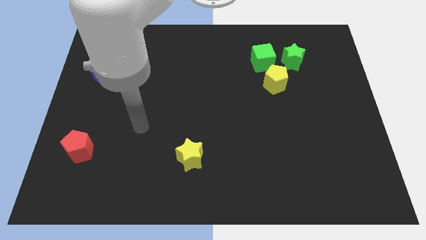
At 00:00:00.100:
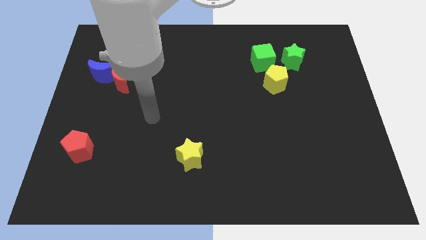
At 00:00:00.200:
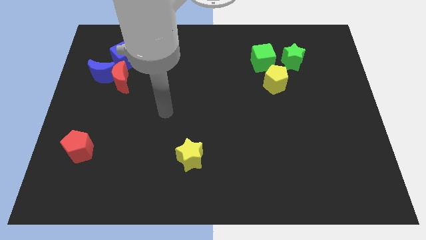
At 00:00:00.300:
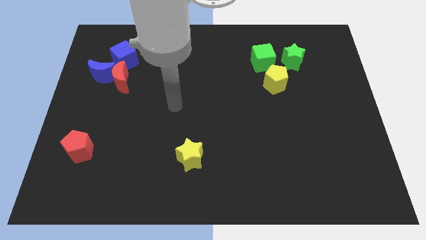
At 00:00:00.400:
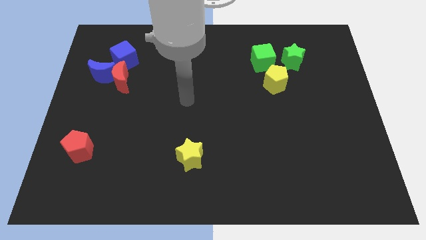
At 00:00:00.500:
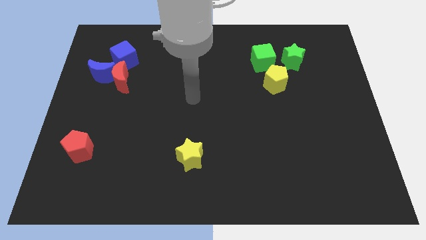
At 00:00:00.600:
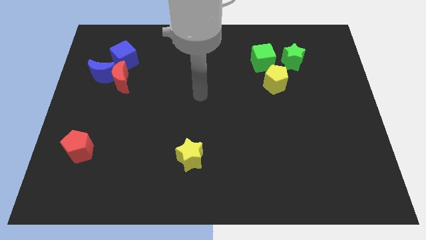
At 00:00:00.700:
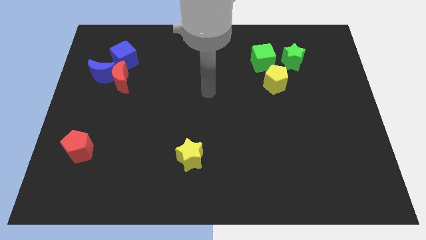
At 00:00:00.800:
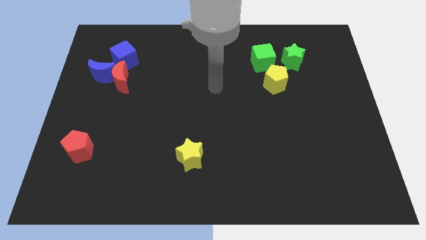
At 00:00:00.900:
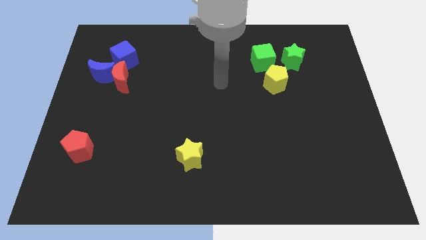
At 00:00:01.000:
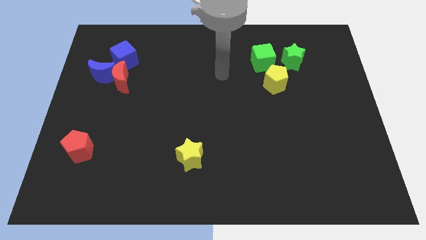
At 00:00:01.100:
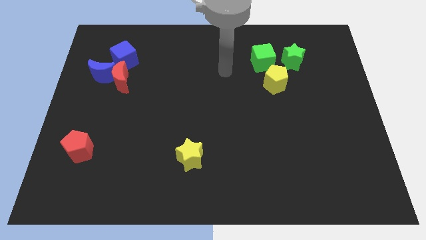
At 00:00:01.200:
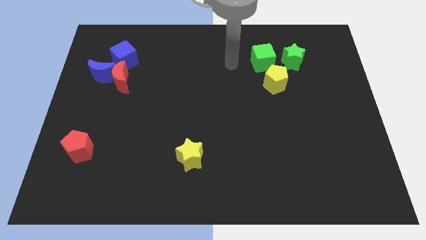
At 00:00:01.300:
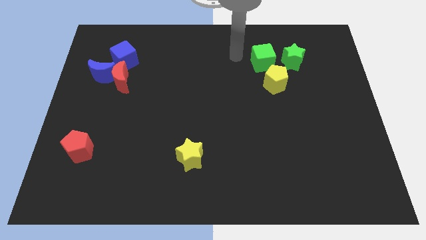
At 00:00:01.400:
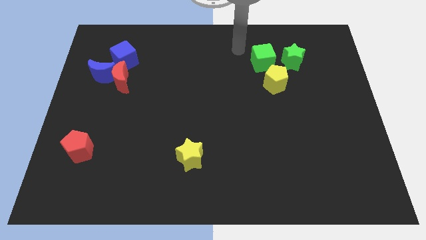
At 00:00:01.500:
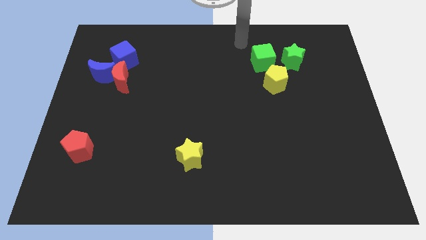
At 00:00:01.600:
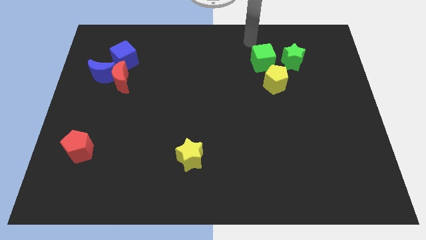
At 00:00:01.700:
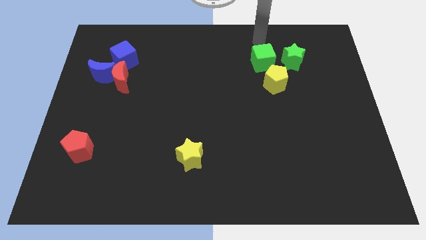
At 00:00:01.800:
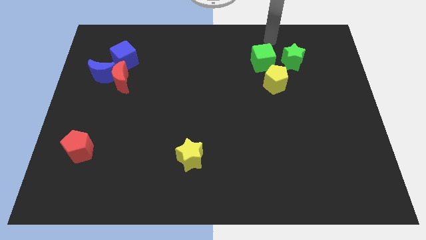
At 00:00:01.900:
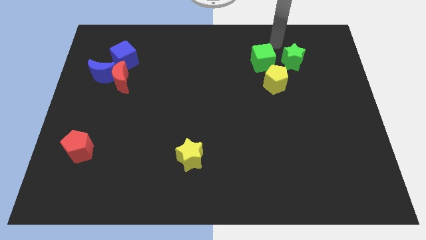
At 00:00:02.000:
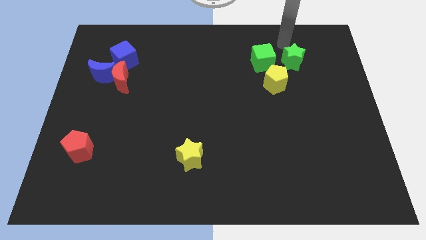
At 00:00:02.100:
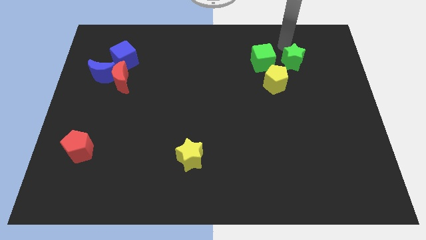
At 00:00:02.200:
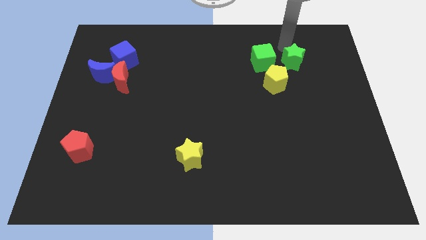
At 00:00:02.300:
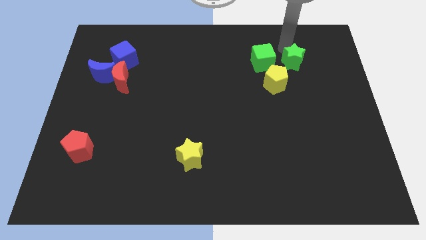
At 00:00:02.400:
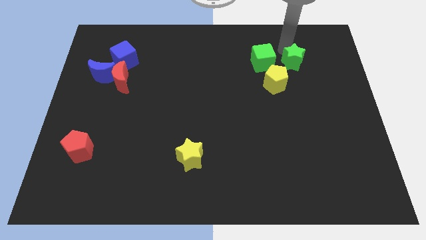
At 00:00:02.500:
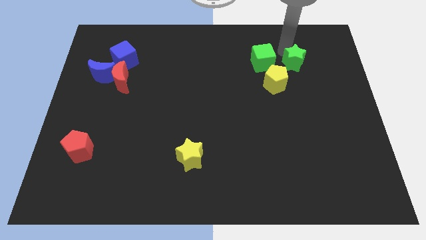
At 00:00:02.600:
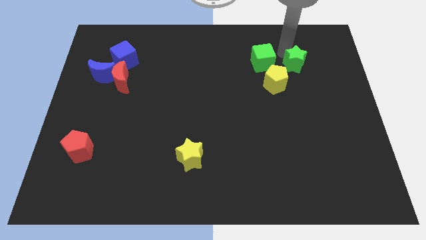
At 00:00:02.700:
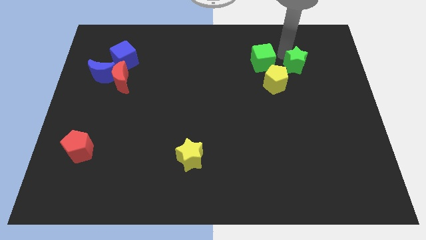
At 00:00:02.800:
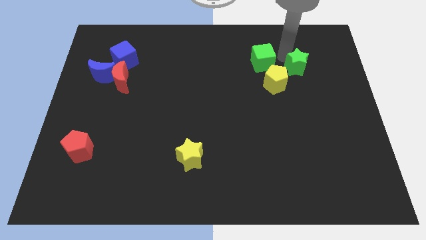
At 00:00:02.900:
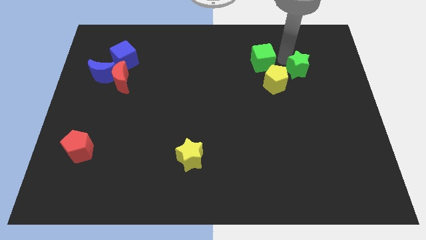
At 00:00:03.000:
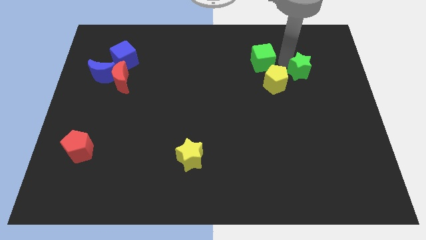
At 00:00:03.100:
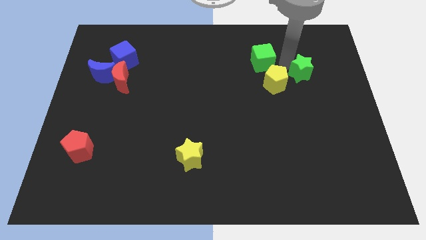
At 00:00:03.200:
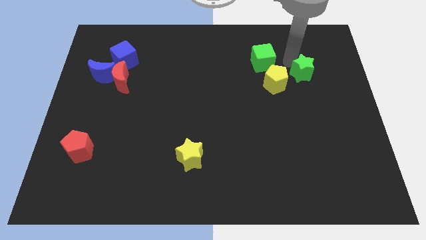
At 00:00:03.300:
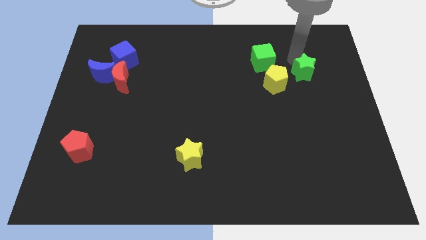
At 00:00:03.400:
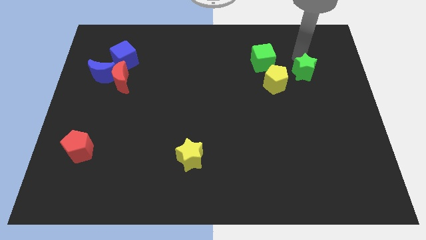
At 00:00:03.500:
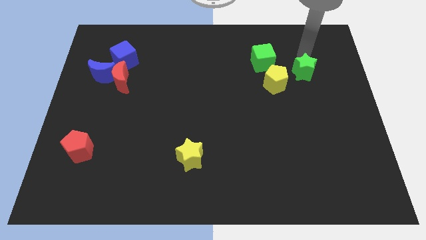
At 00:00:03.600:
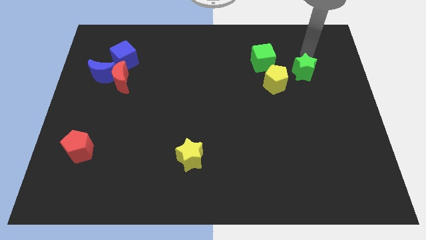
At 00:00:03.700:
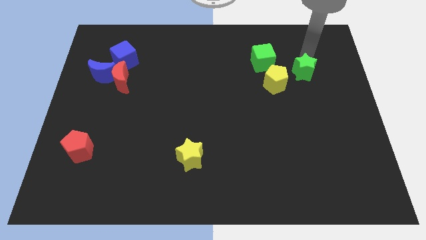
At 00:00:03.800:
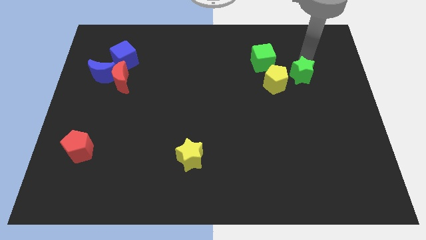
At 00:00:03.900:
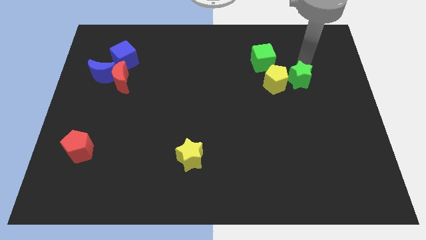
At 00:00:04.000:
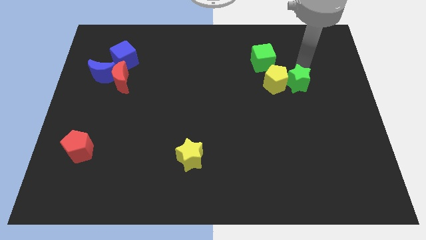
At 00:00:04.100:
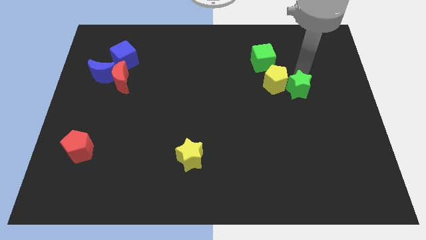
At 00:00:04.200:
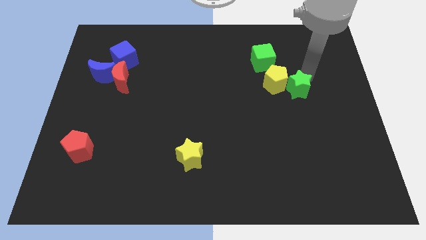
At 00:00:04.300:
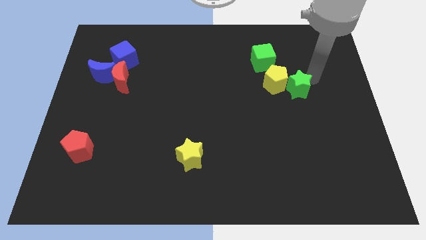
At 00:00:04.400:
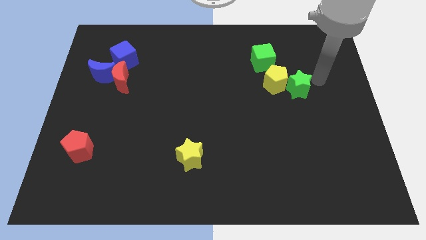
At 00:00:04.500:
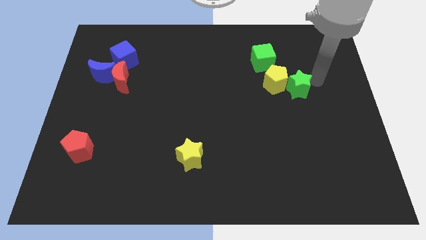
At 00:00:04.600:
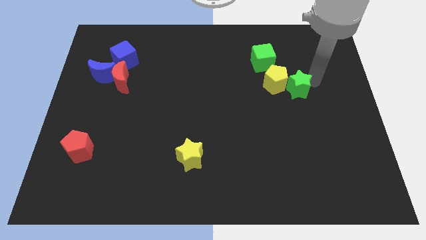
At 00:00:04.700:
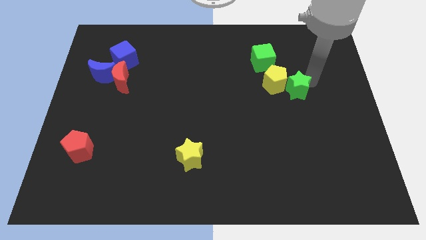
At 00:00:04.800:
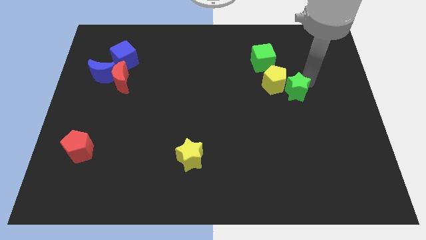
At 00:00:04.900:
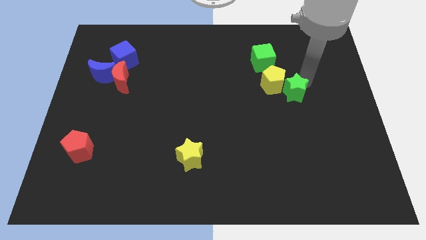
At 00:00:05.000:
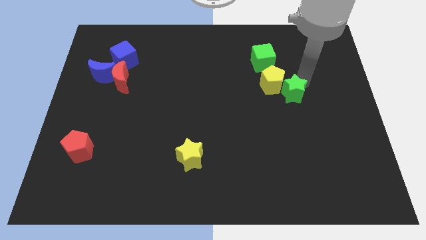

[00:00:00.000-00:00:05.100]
slide the green star diagonally down and to the left slightly

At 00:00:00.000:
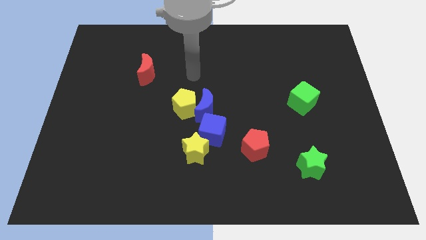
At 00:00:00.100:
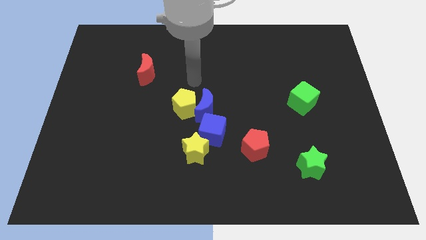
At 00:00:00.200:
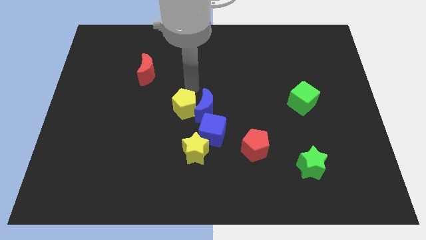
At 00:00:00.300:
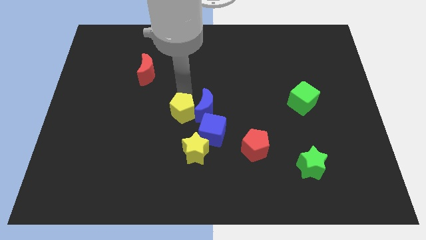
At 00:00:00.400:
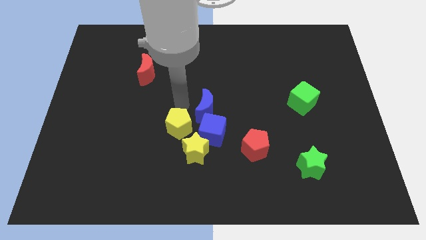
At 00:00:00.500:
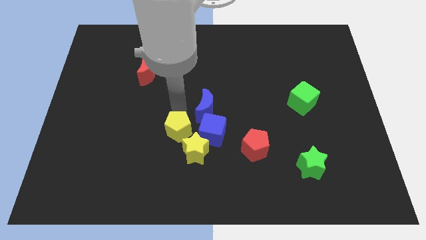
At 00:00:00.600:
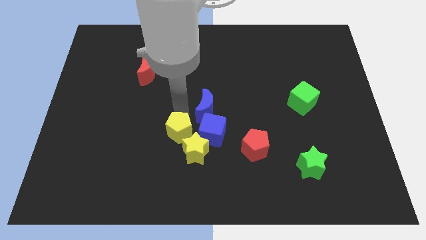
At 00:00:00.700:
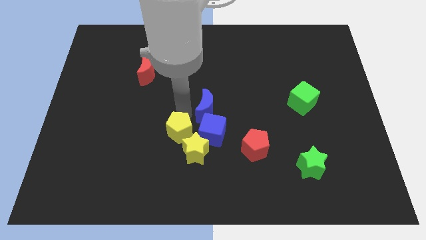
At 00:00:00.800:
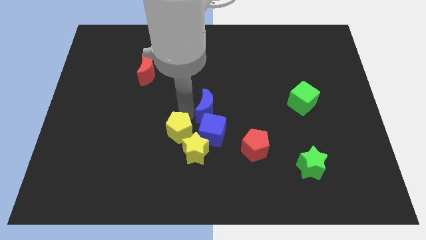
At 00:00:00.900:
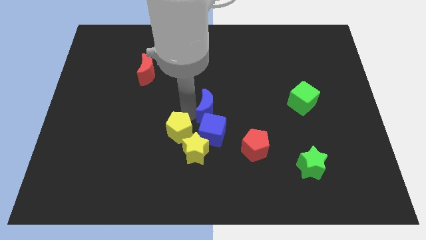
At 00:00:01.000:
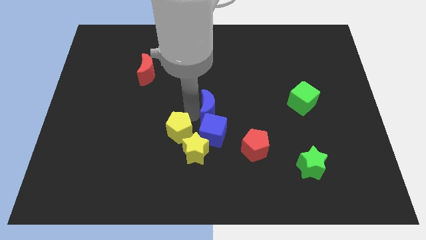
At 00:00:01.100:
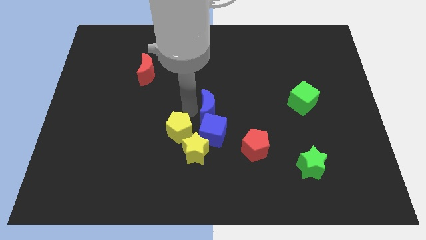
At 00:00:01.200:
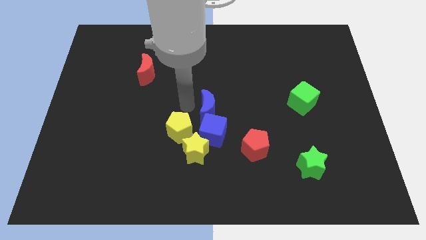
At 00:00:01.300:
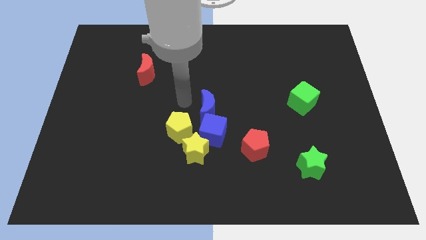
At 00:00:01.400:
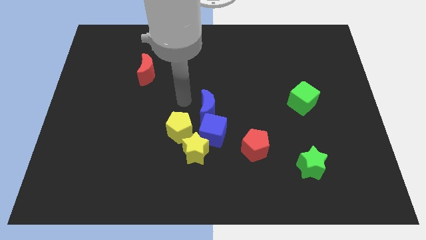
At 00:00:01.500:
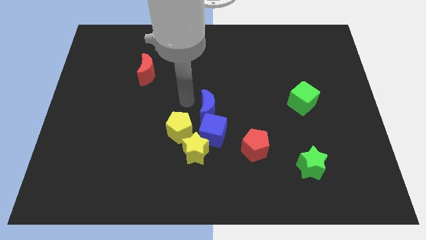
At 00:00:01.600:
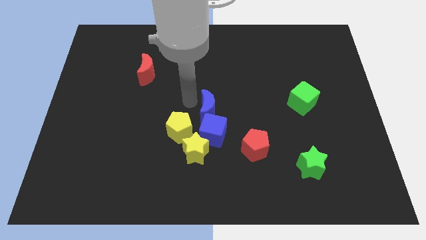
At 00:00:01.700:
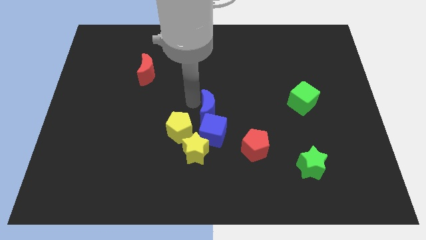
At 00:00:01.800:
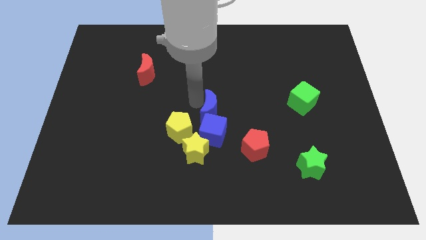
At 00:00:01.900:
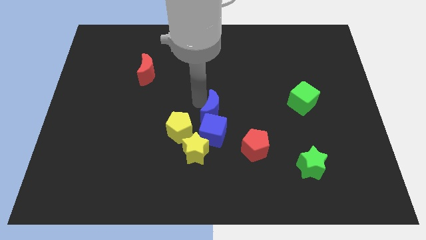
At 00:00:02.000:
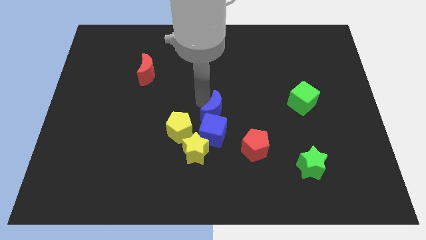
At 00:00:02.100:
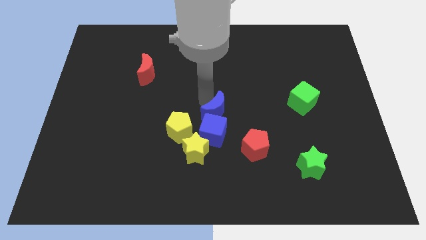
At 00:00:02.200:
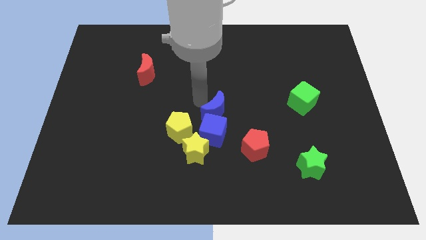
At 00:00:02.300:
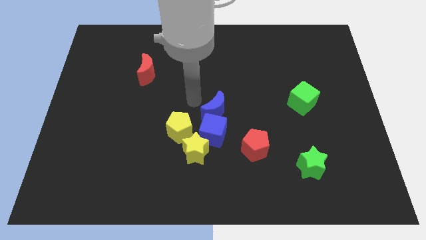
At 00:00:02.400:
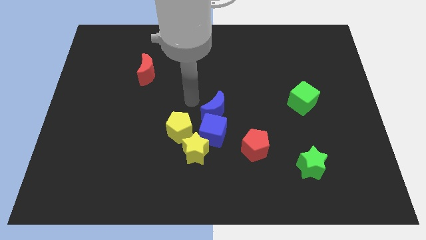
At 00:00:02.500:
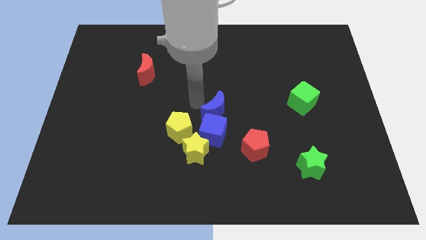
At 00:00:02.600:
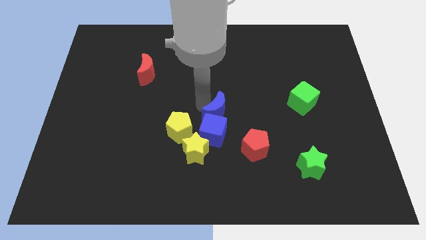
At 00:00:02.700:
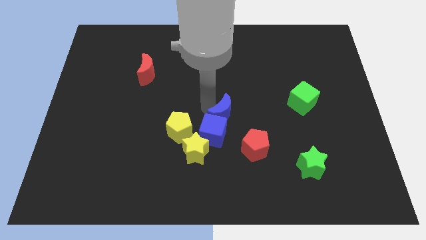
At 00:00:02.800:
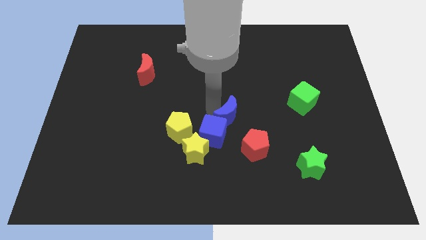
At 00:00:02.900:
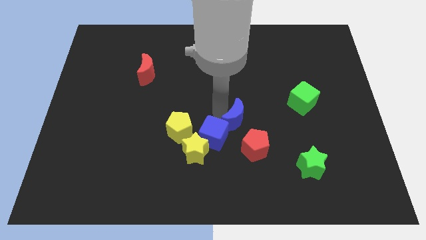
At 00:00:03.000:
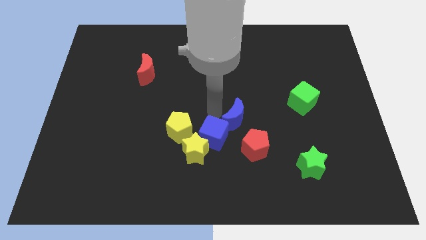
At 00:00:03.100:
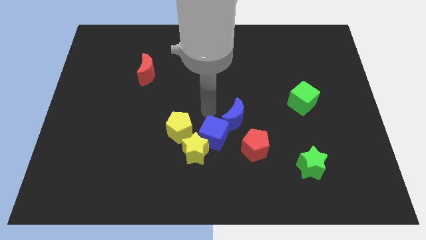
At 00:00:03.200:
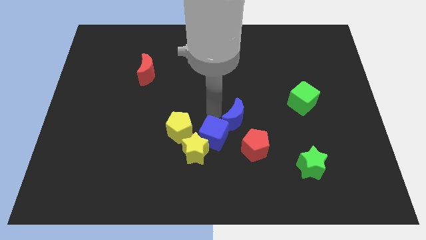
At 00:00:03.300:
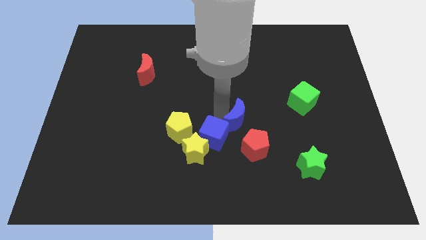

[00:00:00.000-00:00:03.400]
slightly push the blue moon down and then right
